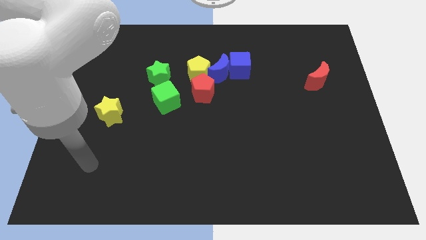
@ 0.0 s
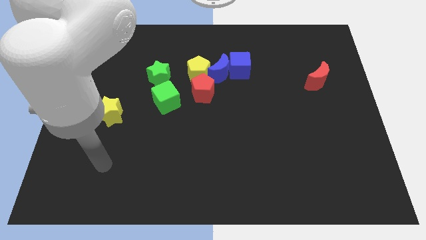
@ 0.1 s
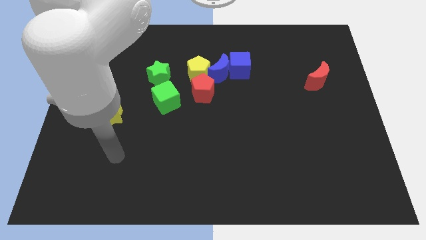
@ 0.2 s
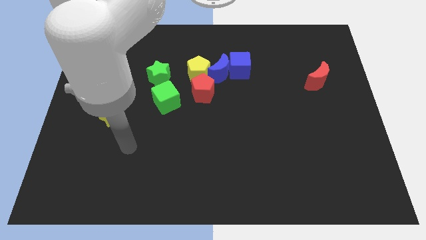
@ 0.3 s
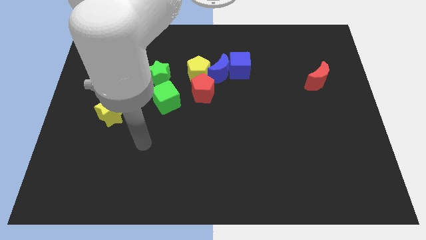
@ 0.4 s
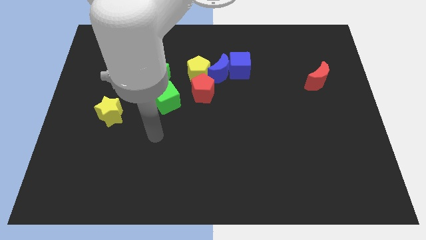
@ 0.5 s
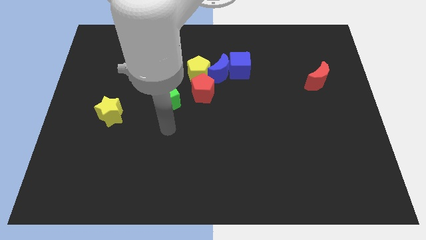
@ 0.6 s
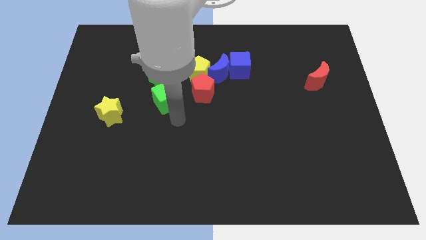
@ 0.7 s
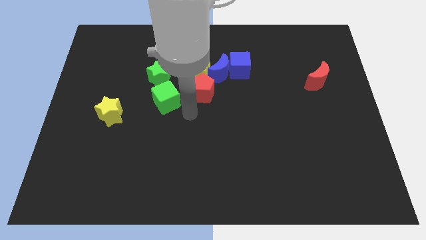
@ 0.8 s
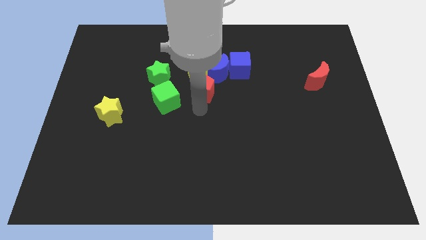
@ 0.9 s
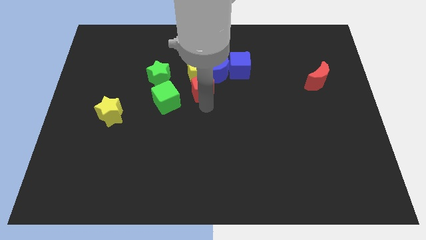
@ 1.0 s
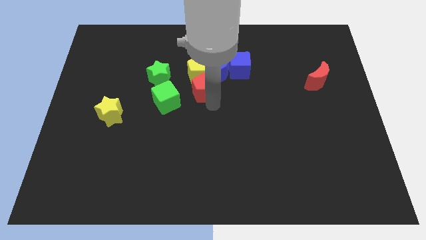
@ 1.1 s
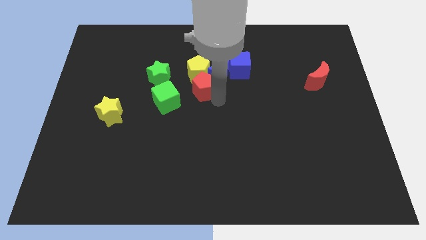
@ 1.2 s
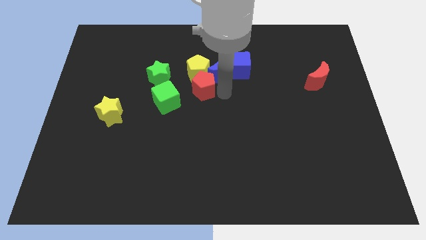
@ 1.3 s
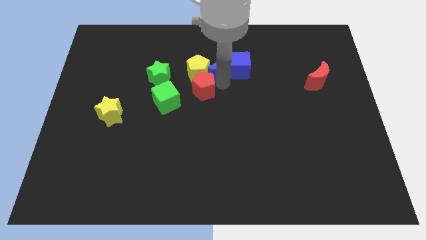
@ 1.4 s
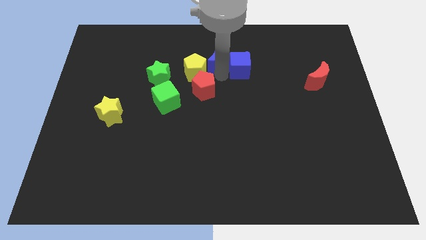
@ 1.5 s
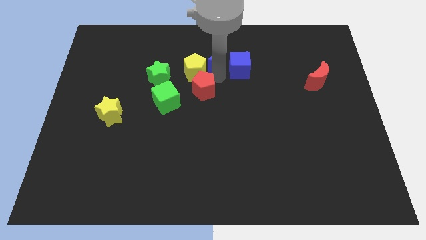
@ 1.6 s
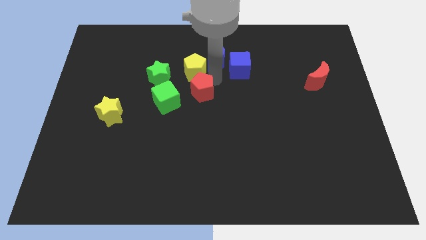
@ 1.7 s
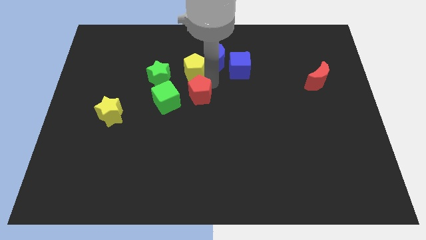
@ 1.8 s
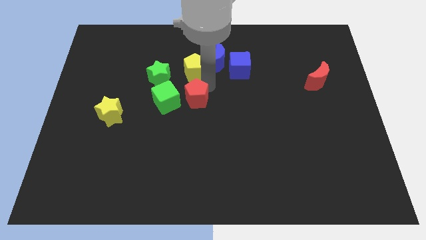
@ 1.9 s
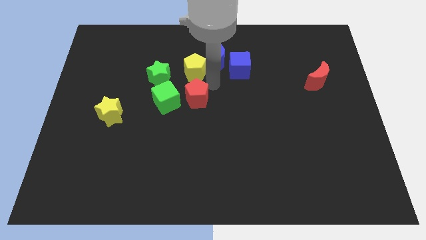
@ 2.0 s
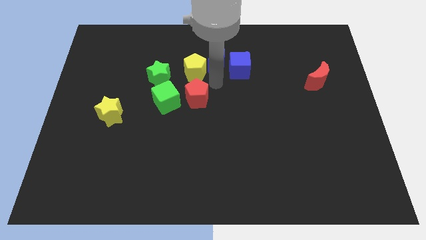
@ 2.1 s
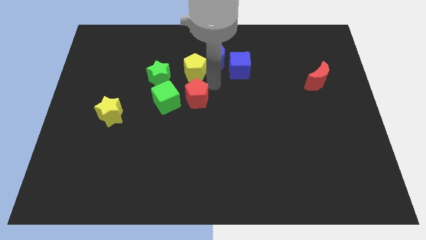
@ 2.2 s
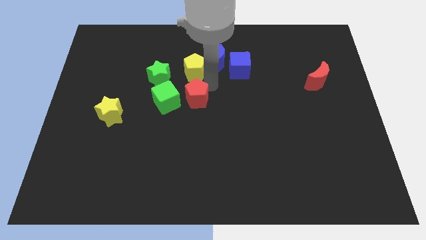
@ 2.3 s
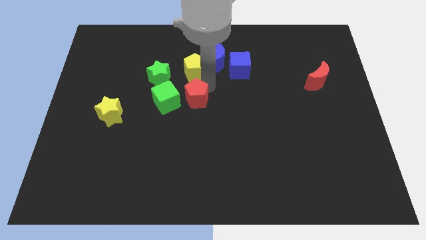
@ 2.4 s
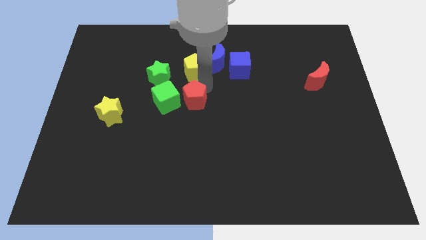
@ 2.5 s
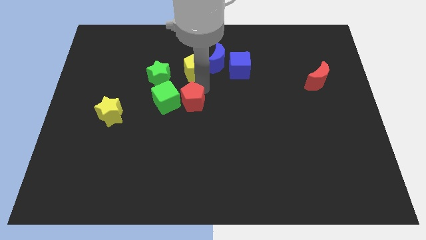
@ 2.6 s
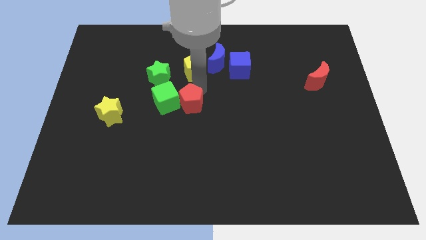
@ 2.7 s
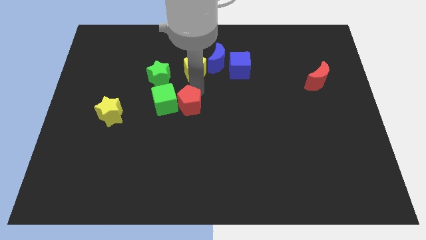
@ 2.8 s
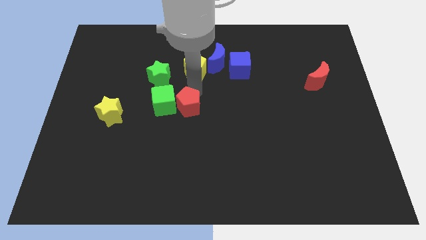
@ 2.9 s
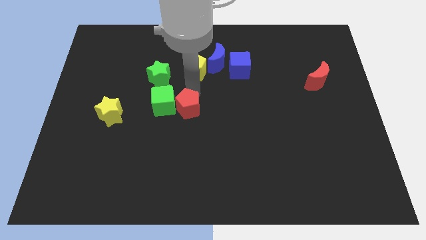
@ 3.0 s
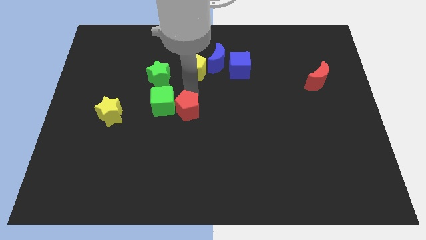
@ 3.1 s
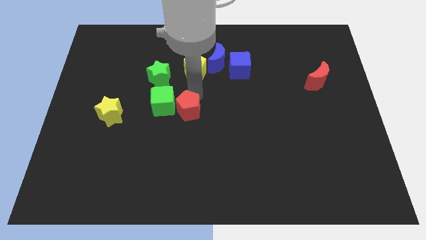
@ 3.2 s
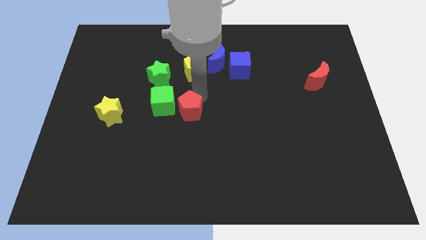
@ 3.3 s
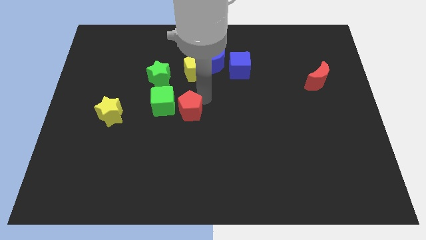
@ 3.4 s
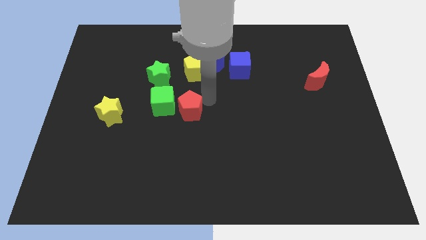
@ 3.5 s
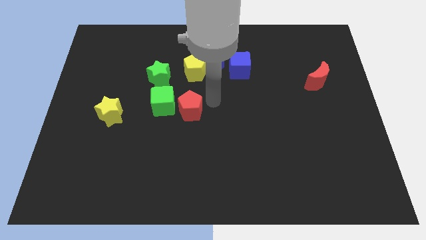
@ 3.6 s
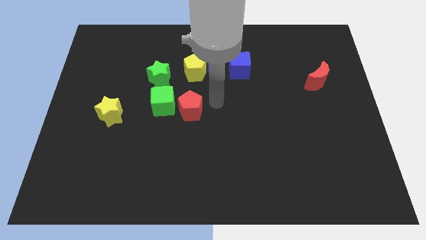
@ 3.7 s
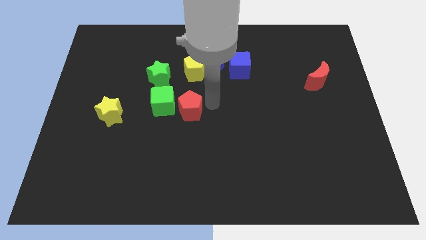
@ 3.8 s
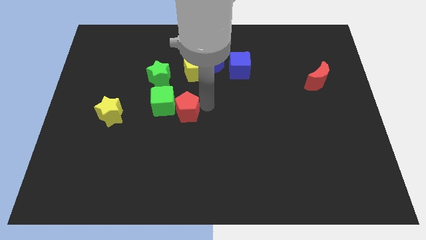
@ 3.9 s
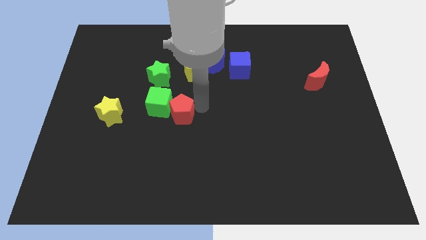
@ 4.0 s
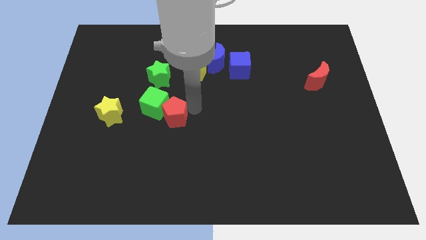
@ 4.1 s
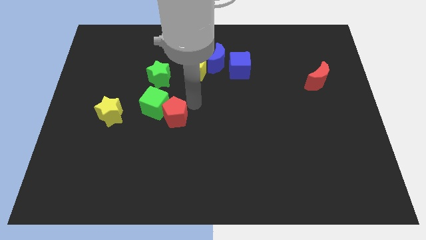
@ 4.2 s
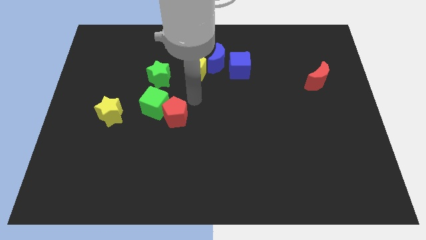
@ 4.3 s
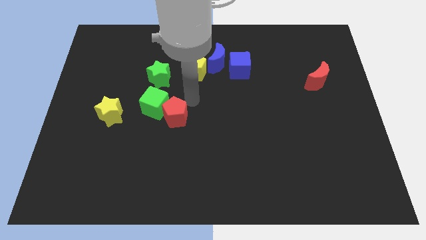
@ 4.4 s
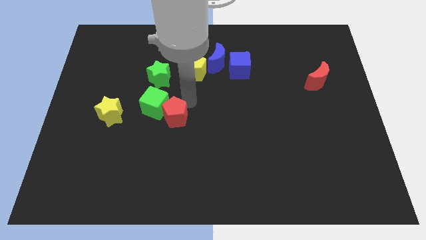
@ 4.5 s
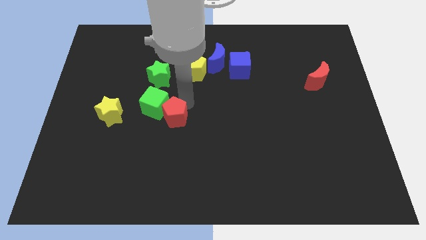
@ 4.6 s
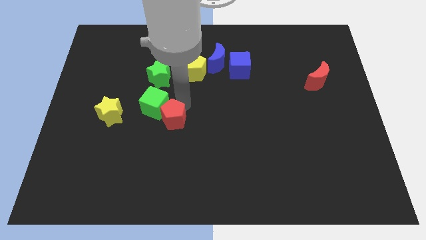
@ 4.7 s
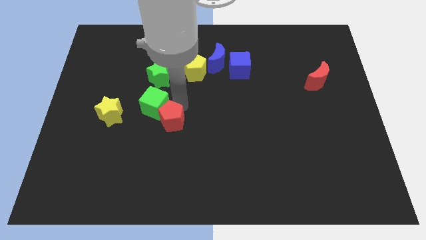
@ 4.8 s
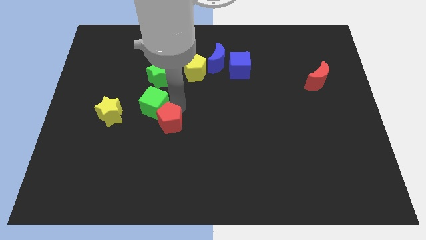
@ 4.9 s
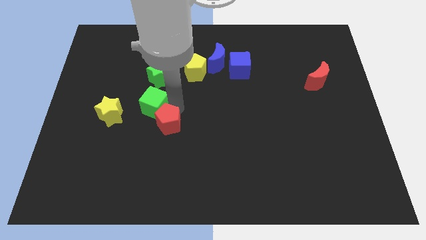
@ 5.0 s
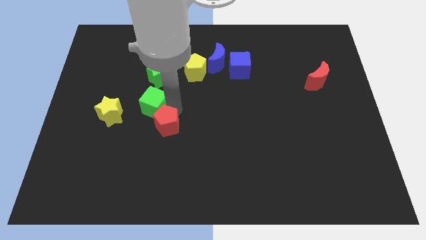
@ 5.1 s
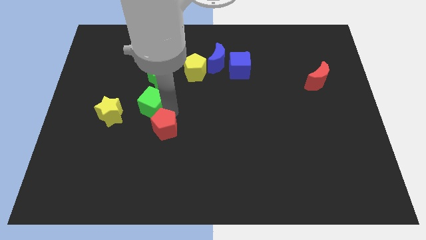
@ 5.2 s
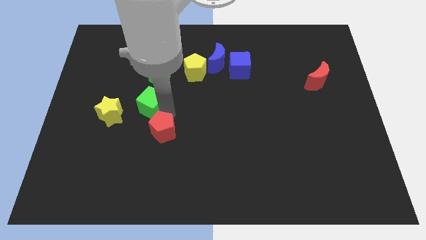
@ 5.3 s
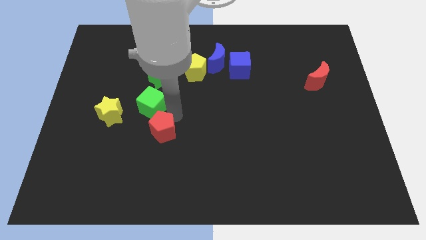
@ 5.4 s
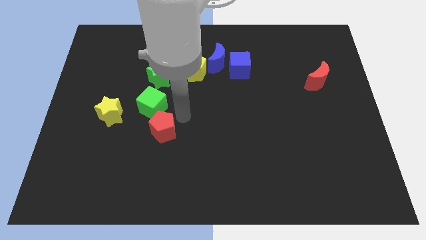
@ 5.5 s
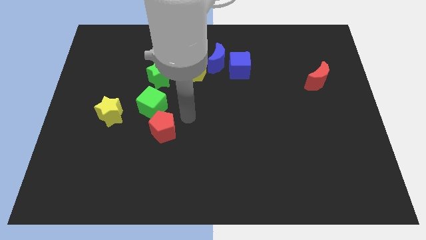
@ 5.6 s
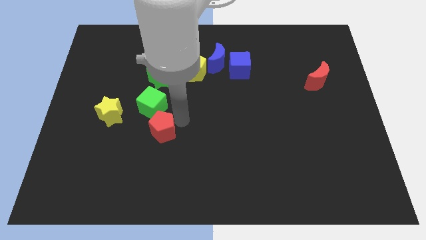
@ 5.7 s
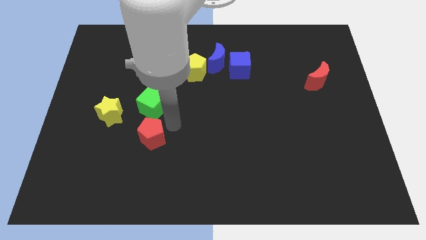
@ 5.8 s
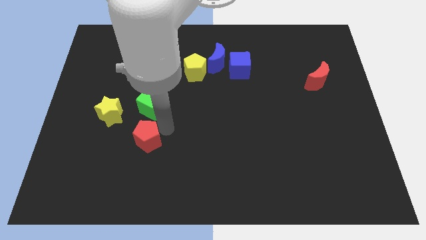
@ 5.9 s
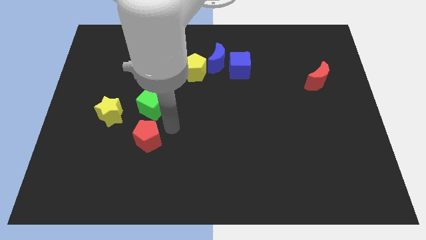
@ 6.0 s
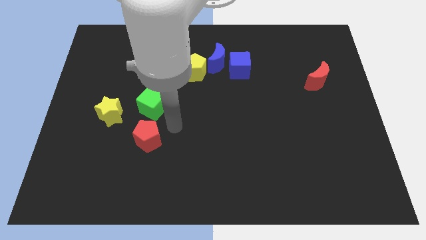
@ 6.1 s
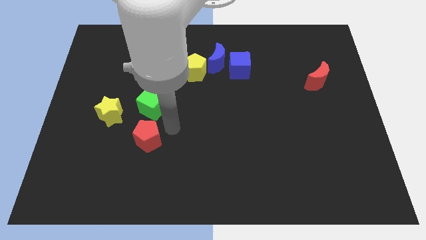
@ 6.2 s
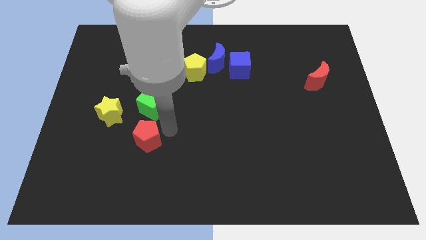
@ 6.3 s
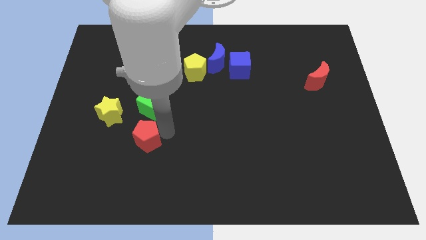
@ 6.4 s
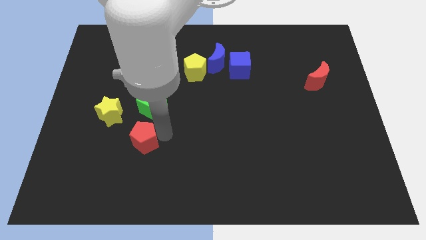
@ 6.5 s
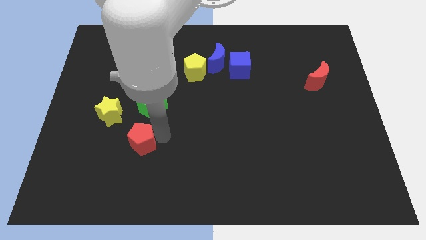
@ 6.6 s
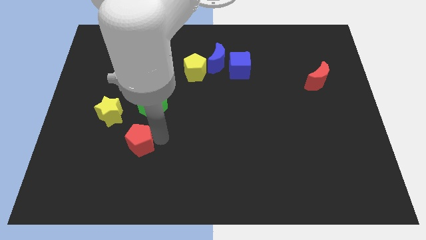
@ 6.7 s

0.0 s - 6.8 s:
push the red pentagon downwards and left

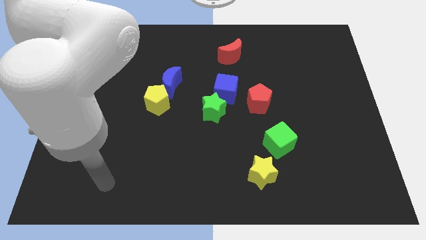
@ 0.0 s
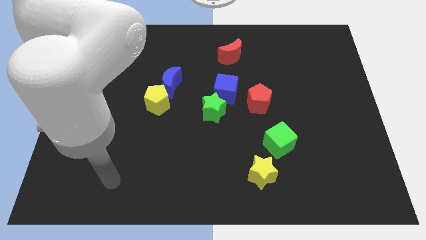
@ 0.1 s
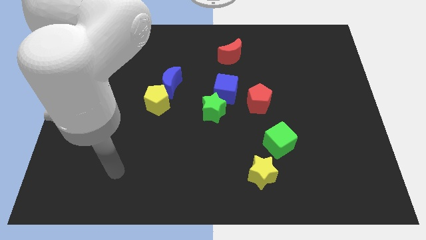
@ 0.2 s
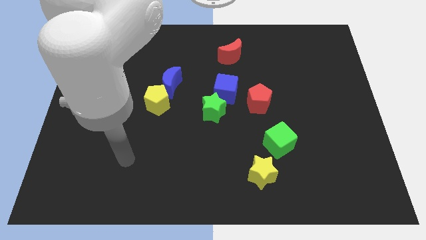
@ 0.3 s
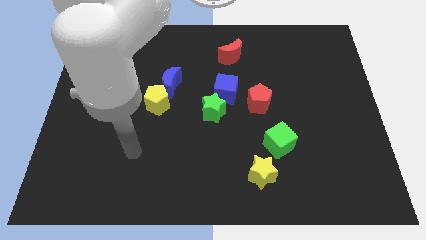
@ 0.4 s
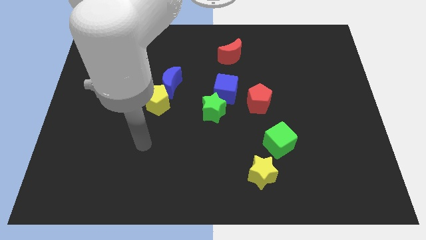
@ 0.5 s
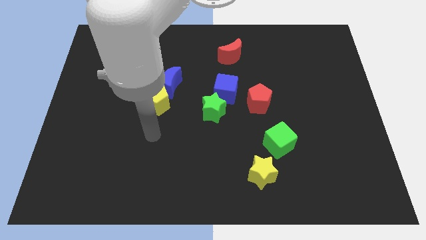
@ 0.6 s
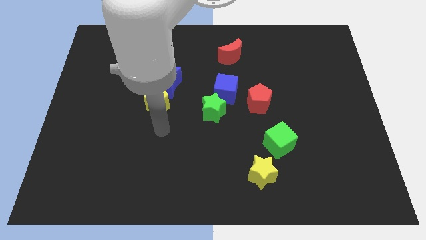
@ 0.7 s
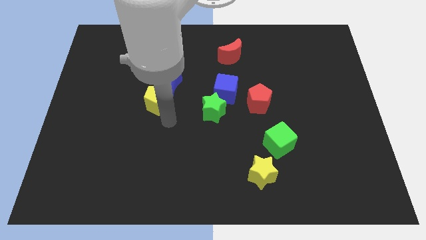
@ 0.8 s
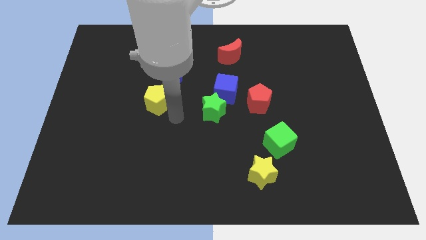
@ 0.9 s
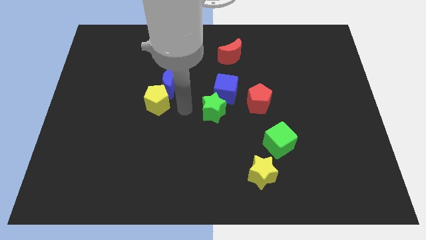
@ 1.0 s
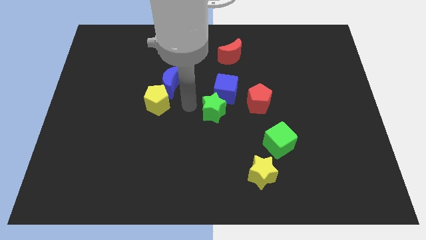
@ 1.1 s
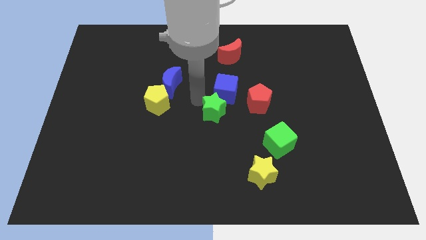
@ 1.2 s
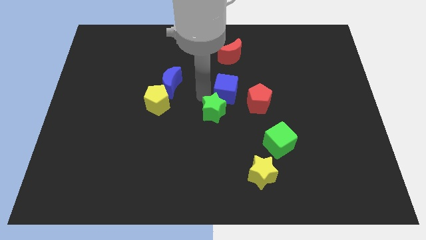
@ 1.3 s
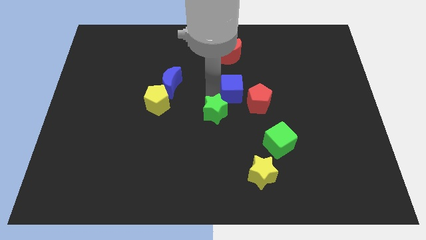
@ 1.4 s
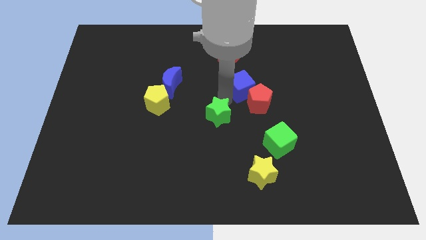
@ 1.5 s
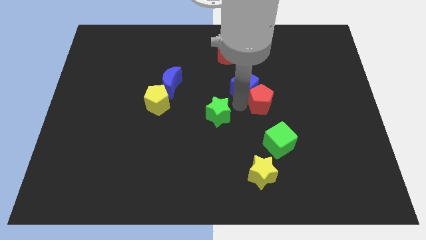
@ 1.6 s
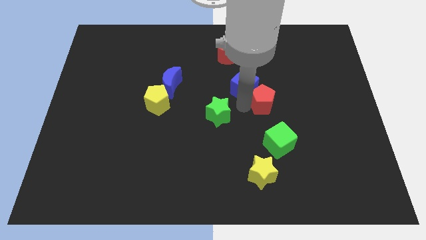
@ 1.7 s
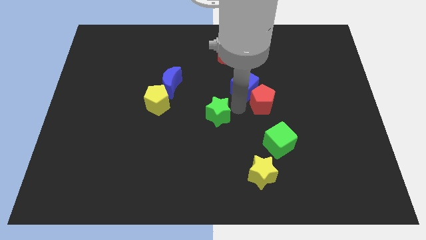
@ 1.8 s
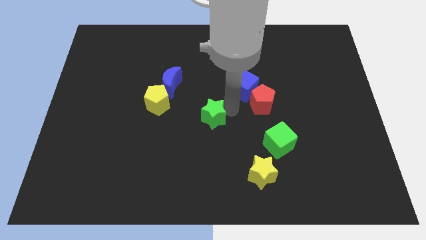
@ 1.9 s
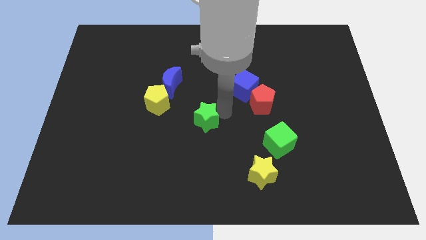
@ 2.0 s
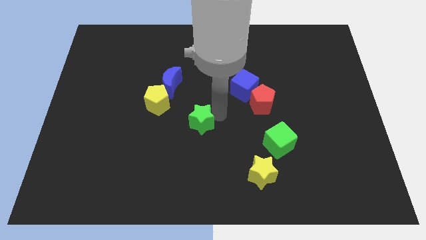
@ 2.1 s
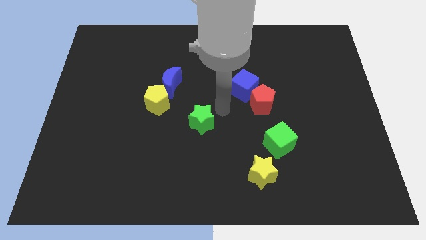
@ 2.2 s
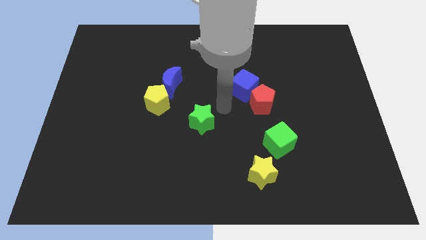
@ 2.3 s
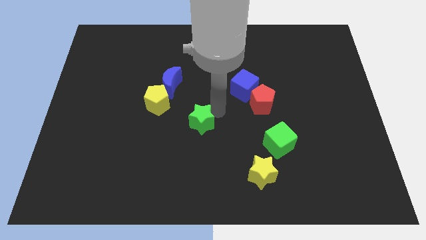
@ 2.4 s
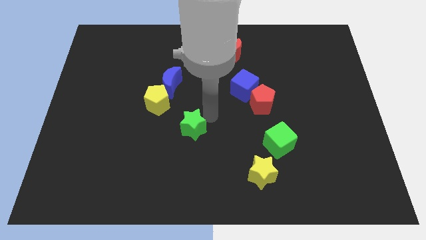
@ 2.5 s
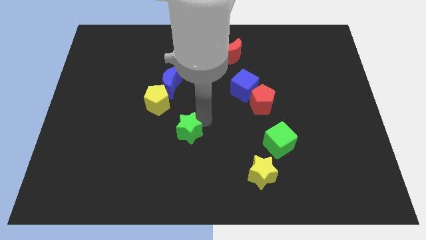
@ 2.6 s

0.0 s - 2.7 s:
slightly slide the green star down and to the left diagonally
